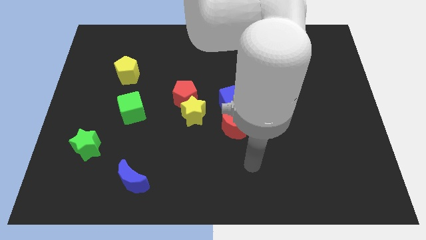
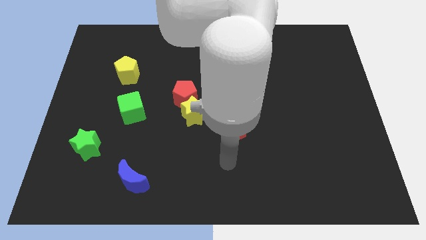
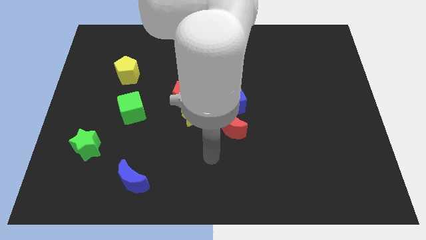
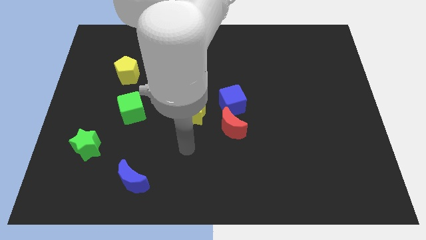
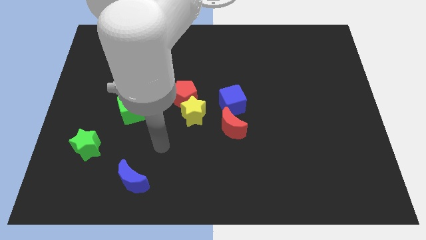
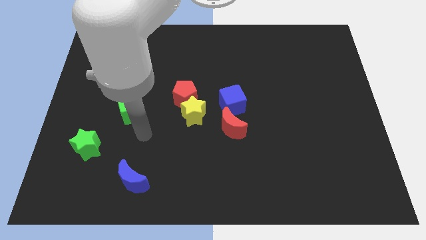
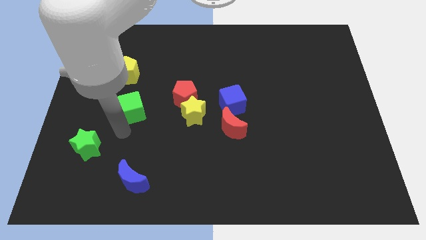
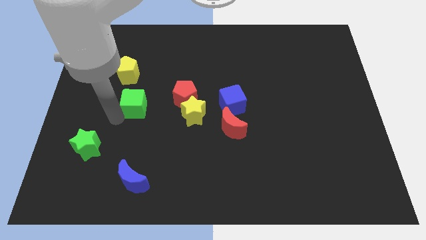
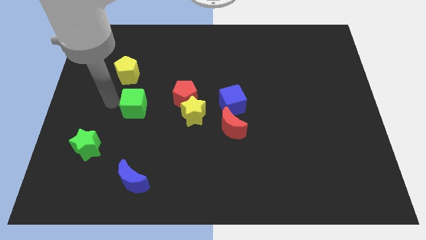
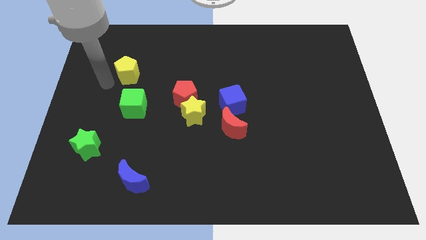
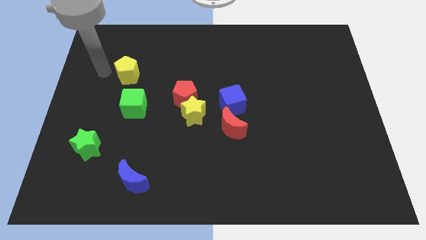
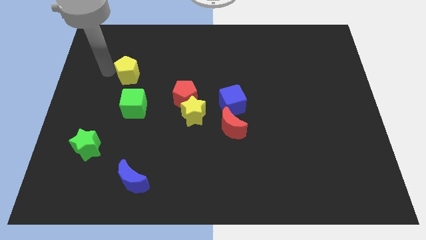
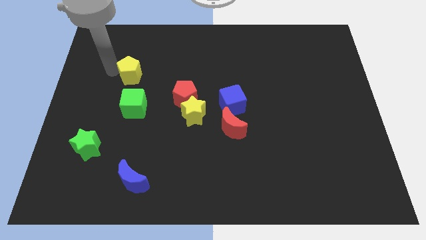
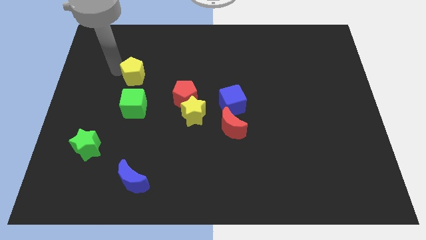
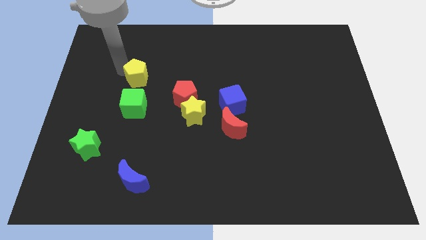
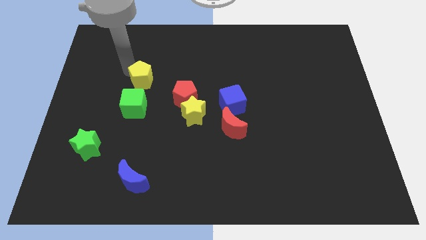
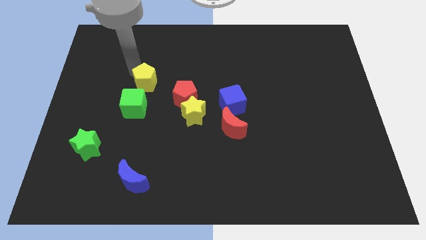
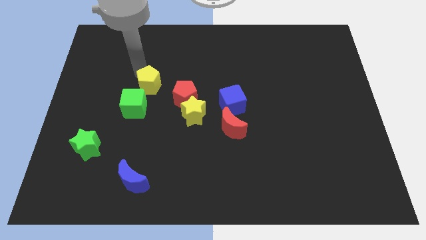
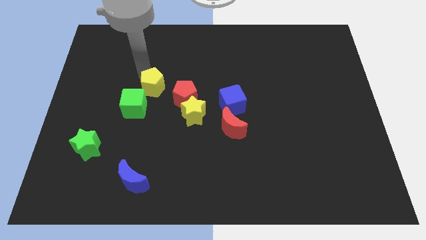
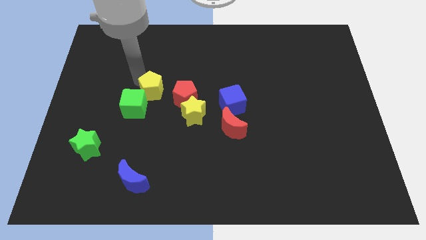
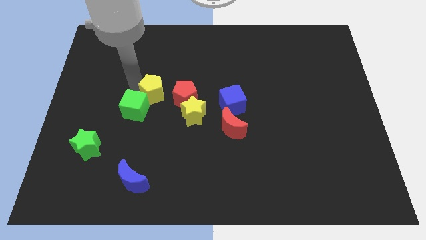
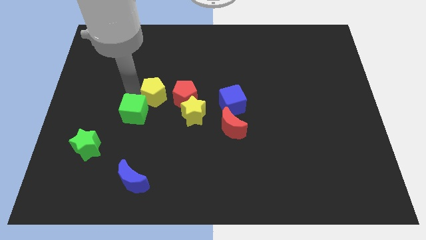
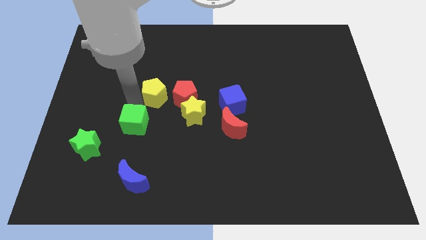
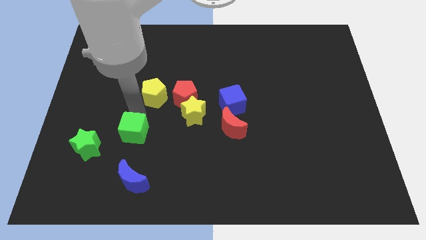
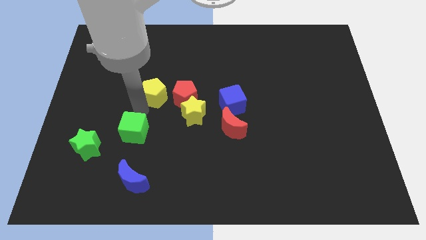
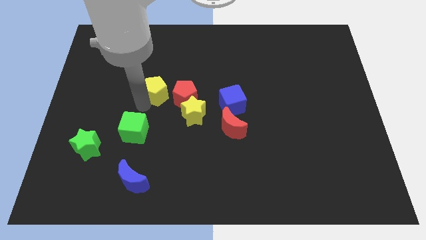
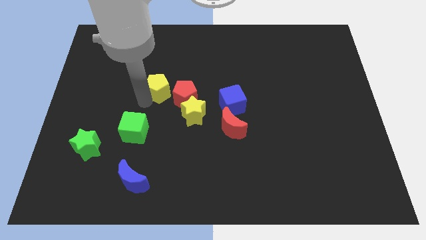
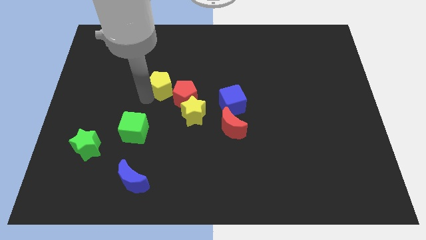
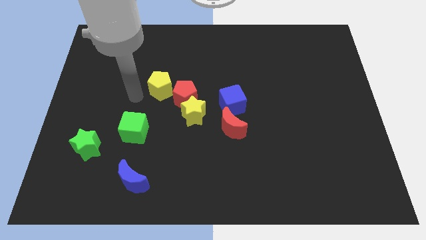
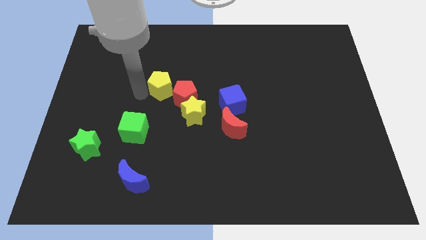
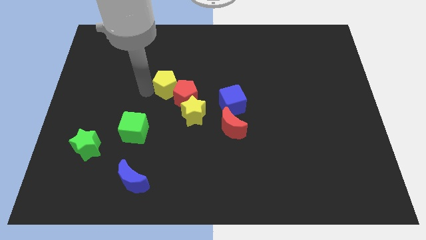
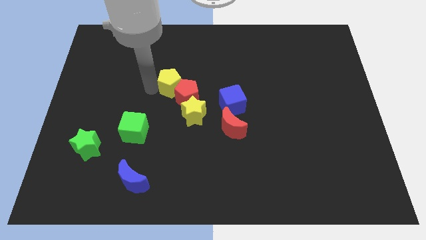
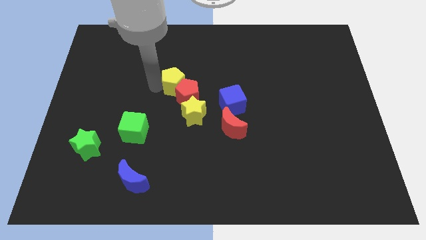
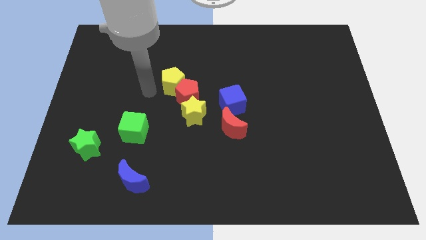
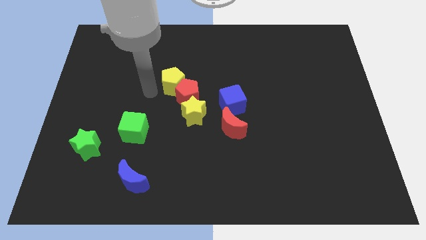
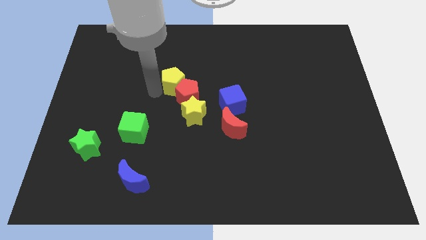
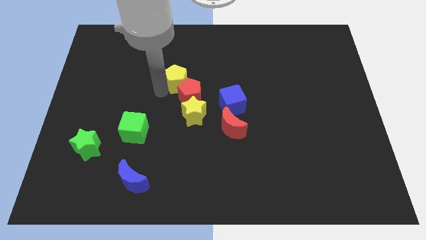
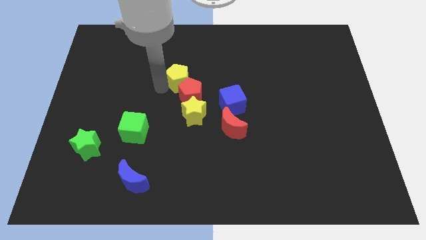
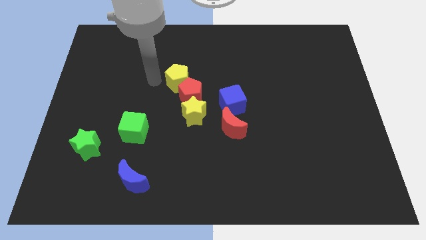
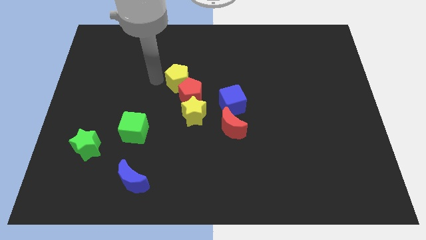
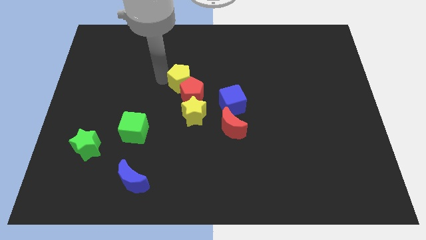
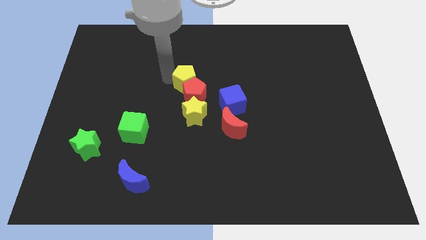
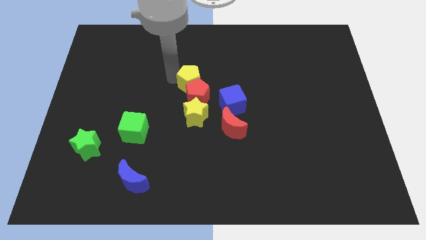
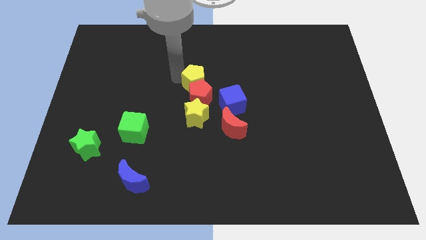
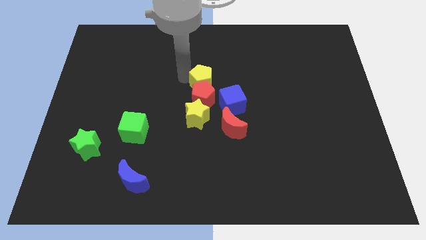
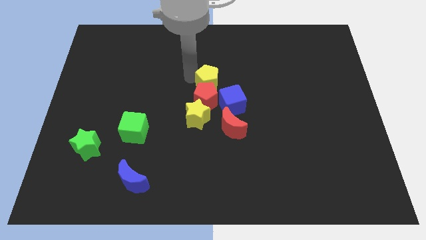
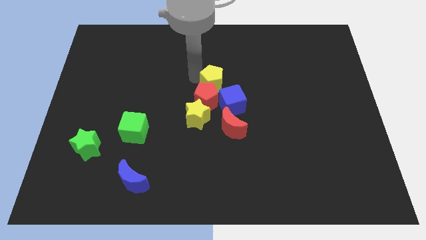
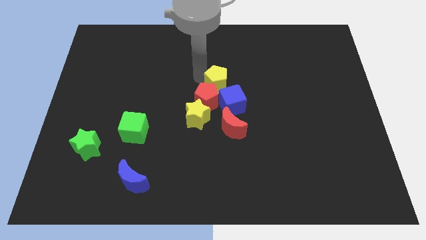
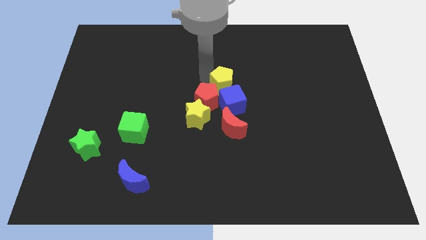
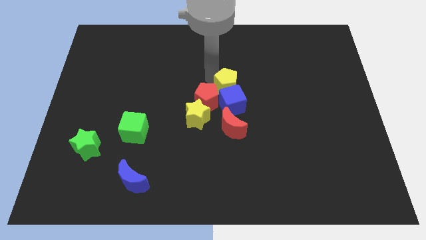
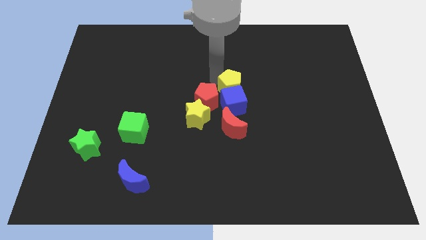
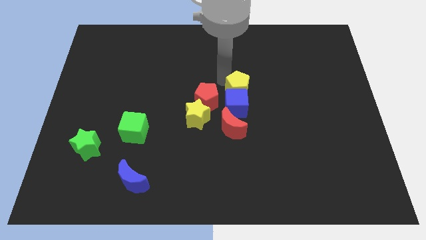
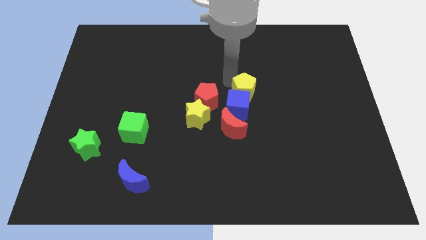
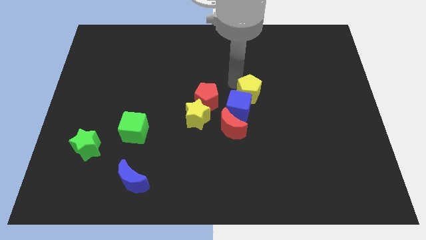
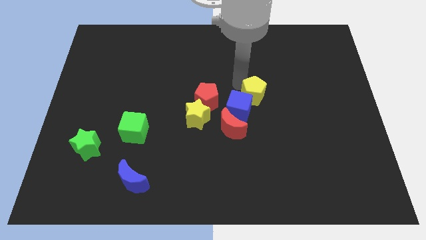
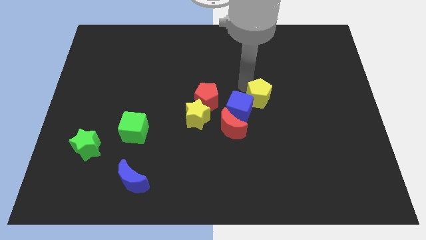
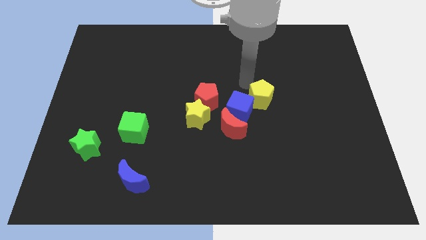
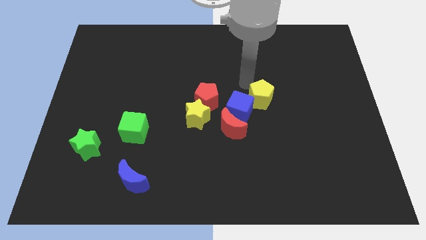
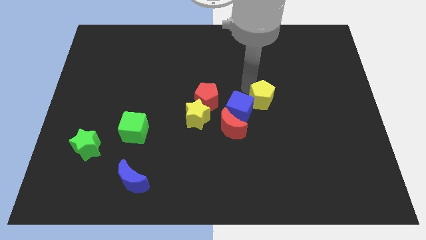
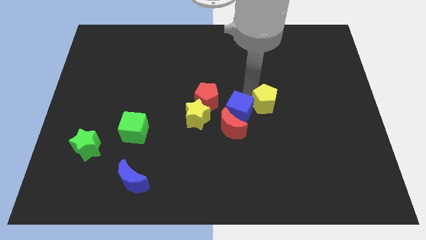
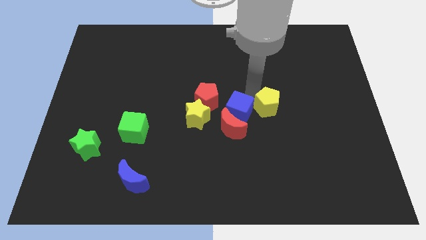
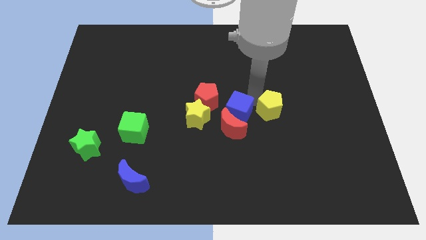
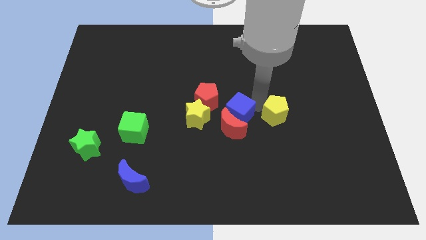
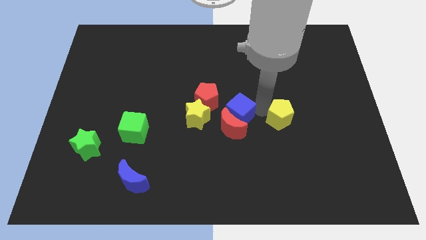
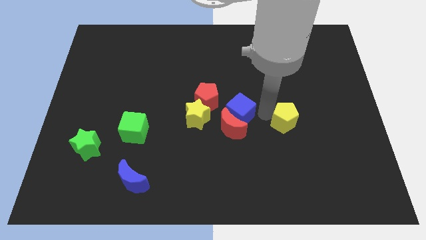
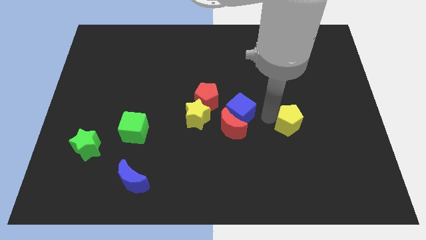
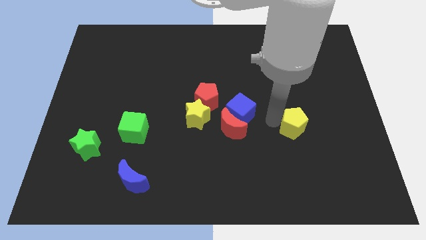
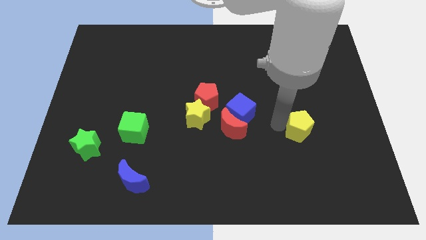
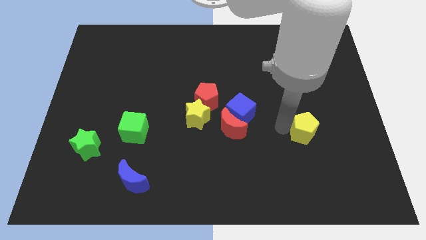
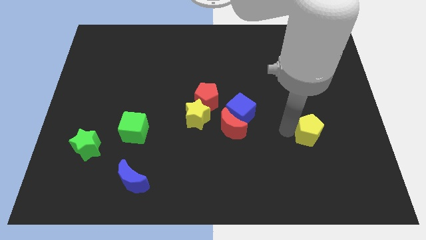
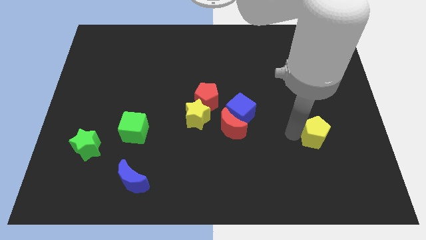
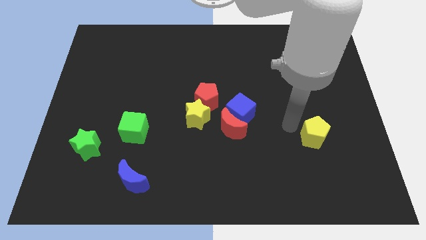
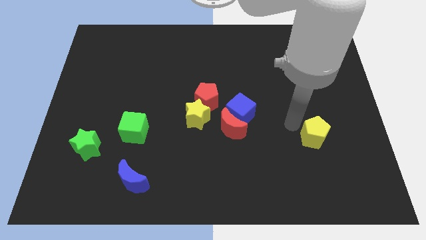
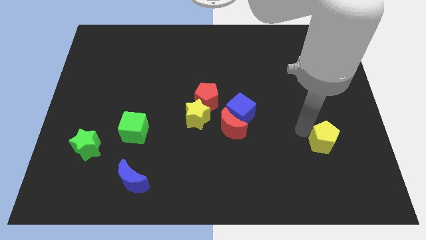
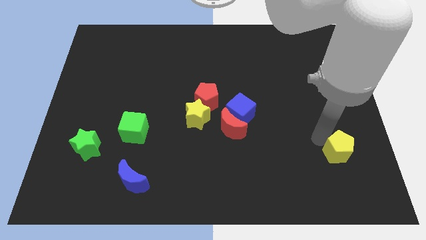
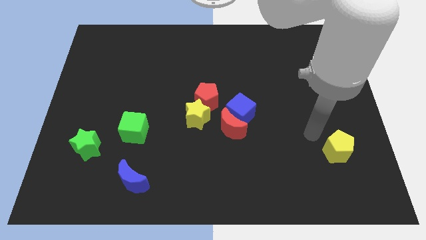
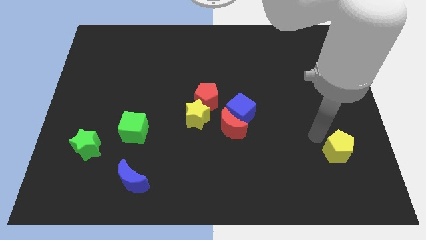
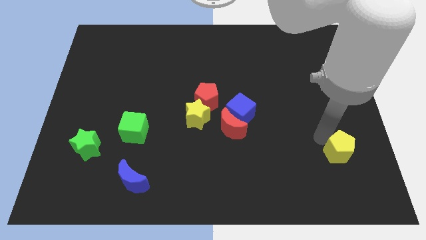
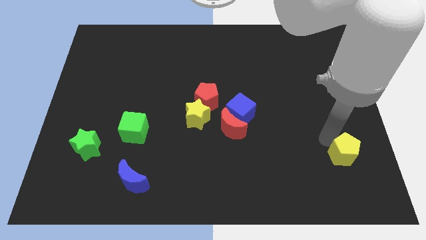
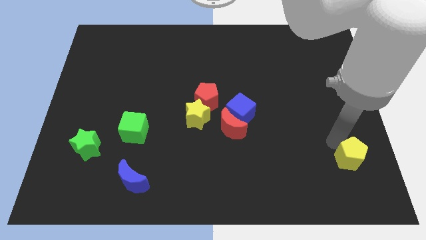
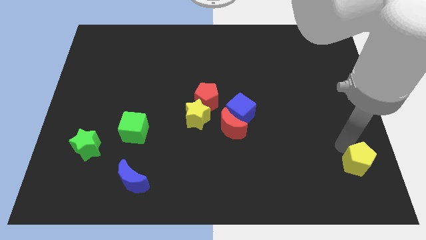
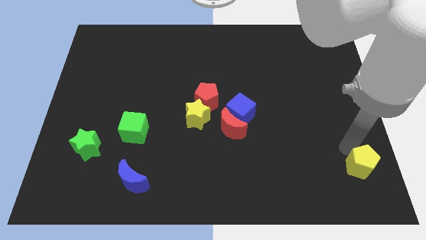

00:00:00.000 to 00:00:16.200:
slide the yellow pentagon to the bottom right
